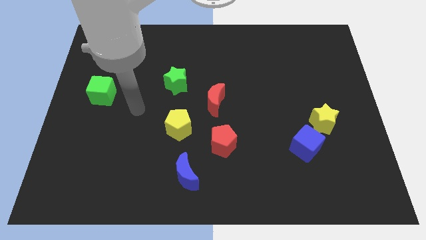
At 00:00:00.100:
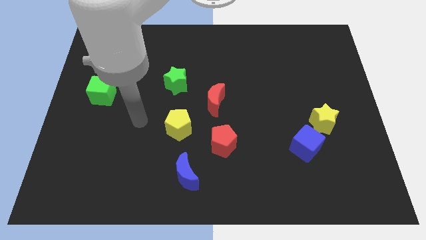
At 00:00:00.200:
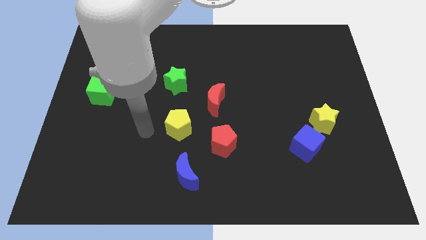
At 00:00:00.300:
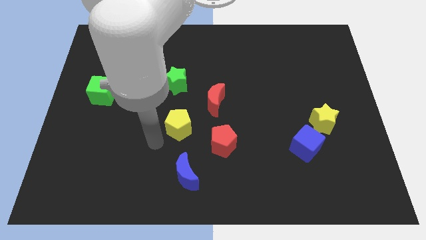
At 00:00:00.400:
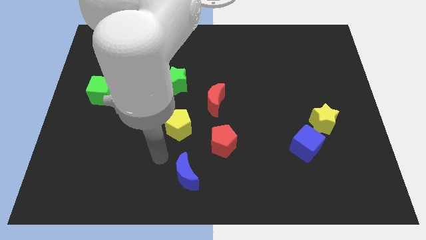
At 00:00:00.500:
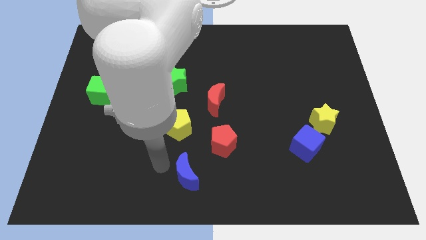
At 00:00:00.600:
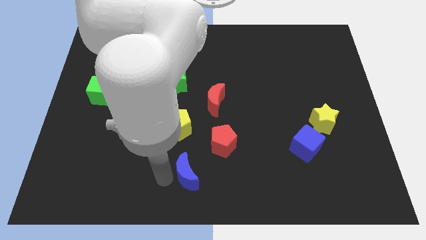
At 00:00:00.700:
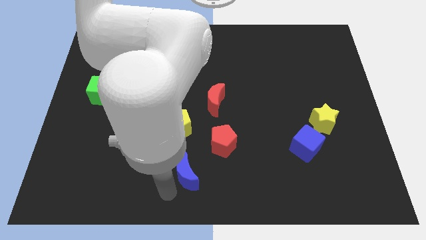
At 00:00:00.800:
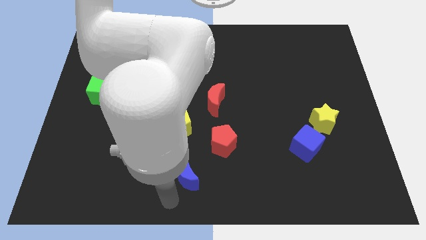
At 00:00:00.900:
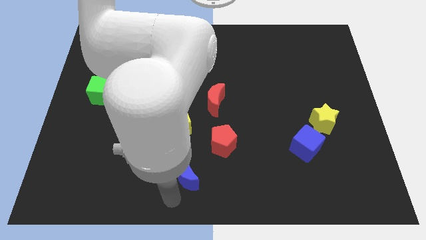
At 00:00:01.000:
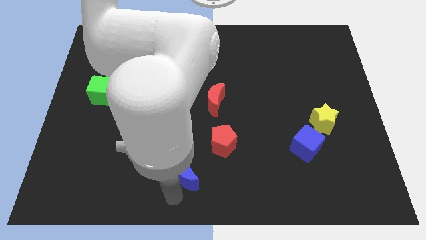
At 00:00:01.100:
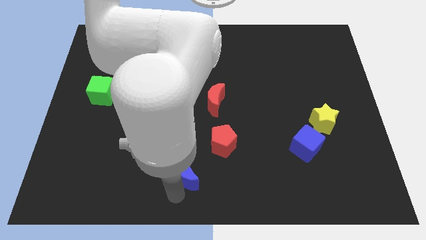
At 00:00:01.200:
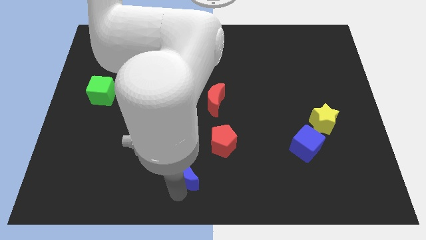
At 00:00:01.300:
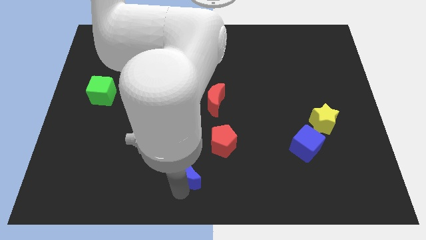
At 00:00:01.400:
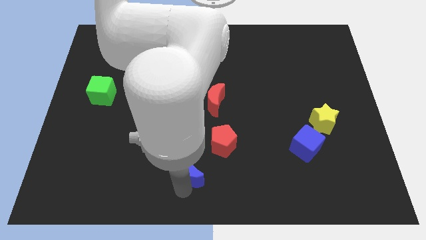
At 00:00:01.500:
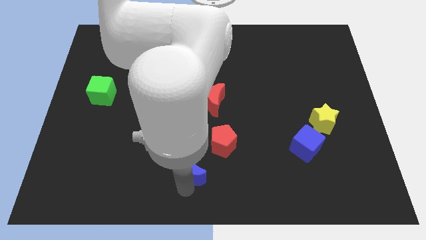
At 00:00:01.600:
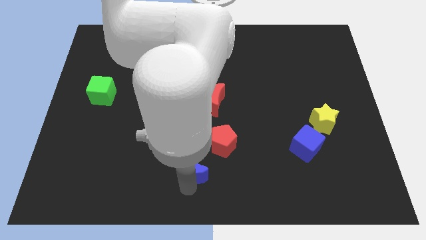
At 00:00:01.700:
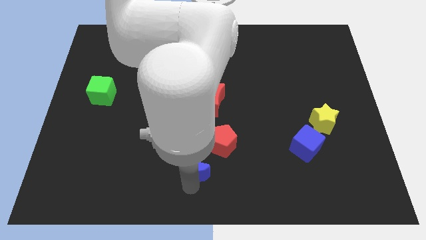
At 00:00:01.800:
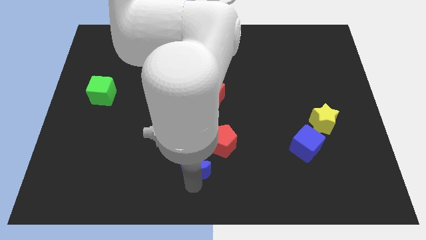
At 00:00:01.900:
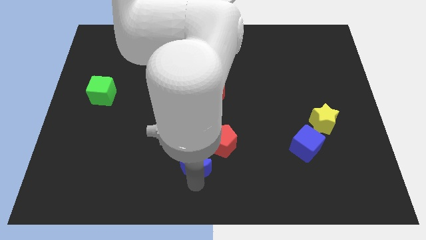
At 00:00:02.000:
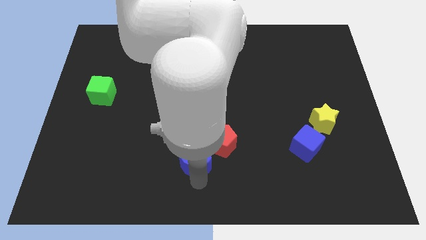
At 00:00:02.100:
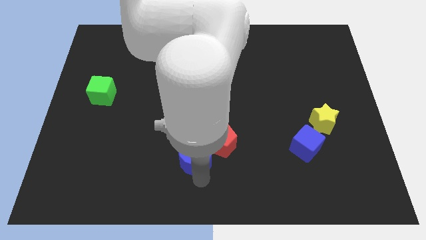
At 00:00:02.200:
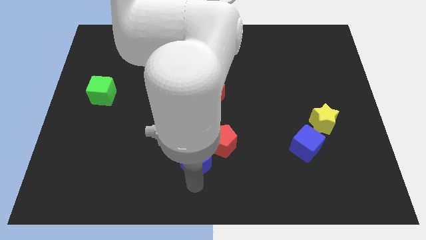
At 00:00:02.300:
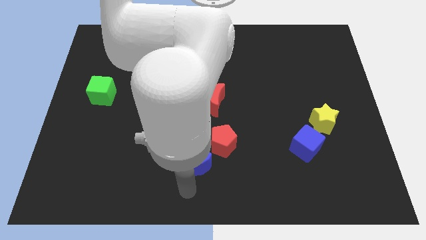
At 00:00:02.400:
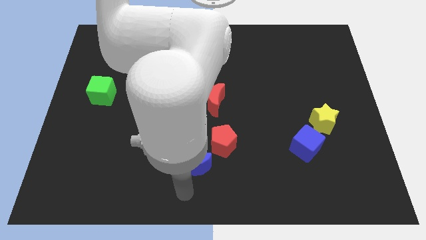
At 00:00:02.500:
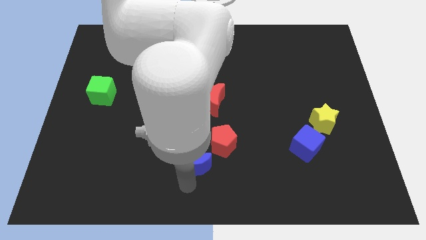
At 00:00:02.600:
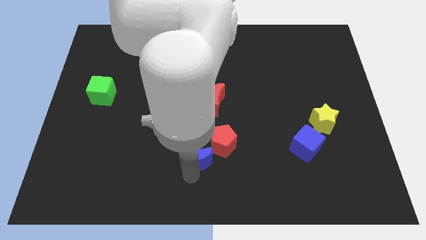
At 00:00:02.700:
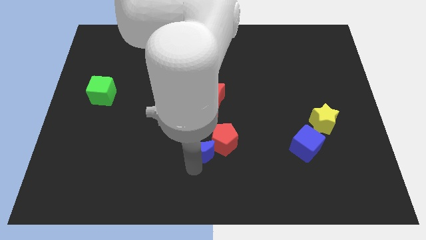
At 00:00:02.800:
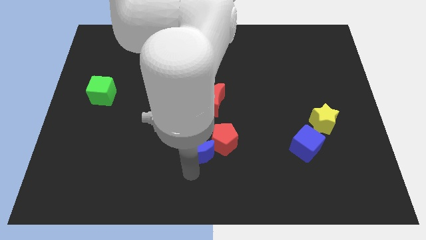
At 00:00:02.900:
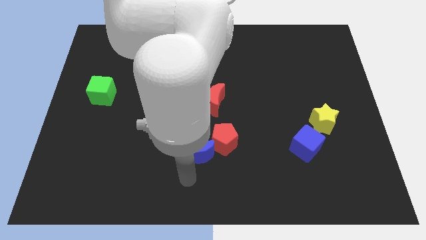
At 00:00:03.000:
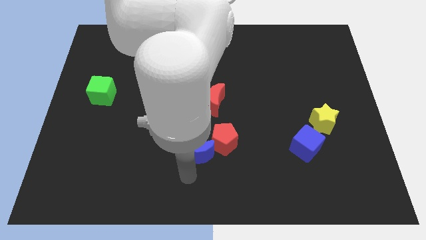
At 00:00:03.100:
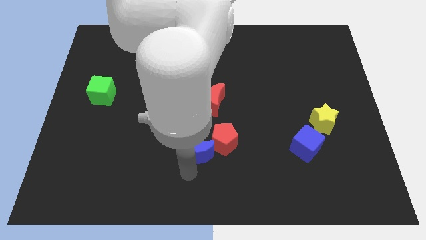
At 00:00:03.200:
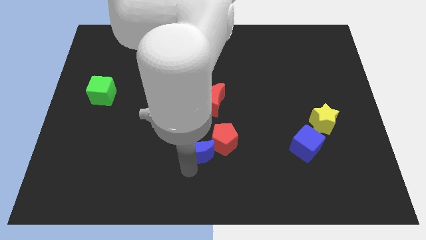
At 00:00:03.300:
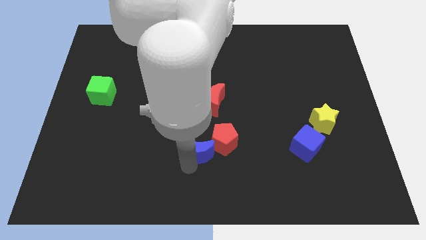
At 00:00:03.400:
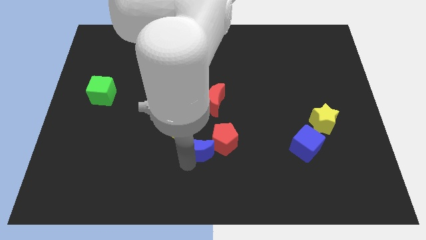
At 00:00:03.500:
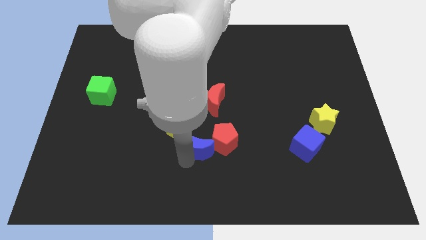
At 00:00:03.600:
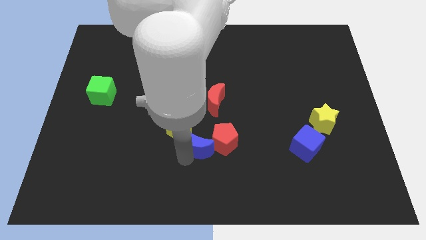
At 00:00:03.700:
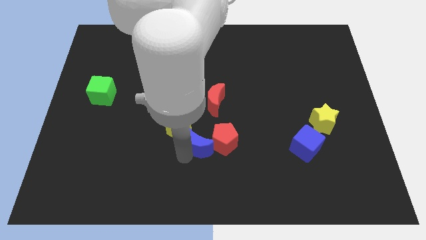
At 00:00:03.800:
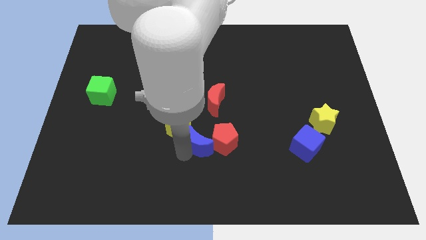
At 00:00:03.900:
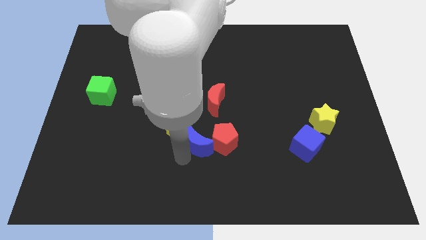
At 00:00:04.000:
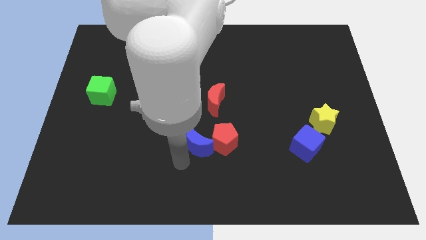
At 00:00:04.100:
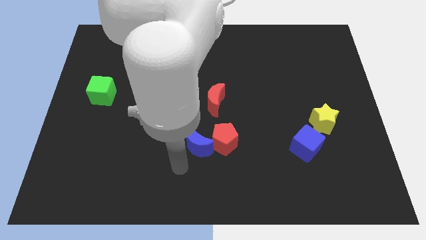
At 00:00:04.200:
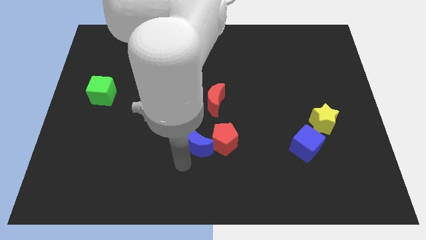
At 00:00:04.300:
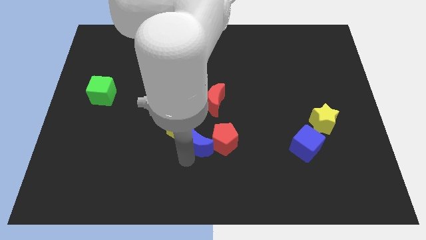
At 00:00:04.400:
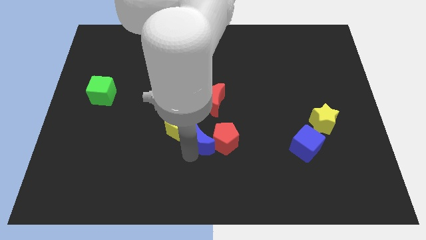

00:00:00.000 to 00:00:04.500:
slide the blue moon diagonally up and right somewhat

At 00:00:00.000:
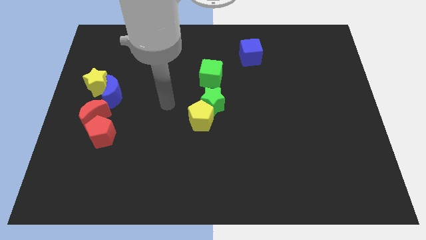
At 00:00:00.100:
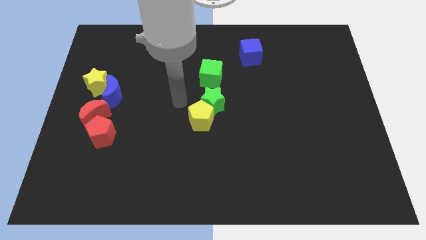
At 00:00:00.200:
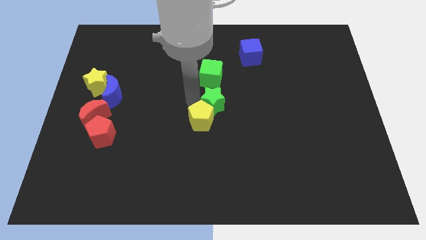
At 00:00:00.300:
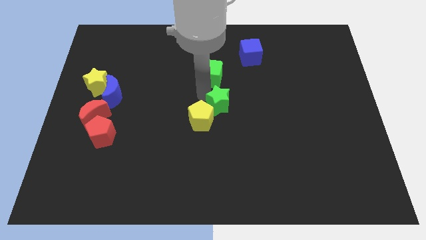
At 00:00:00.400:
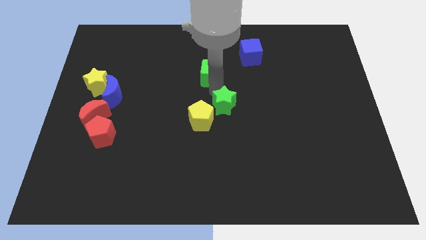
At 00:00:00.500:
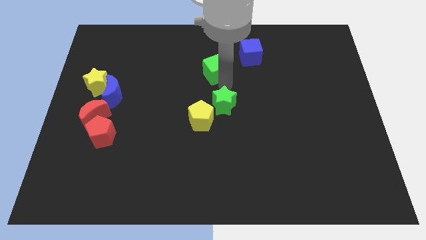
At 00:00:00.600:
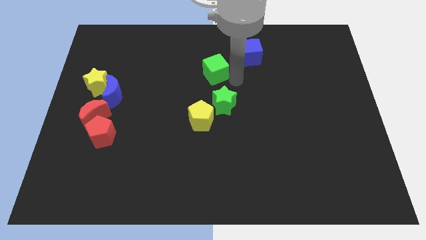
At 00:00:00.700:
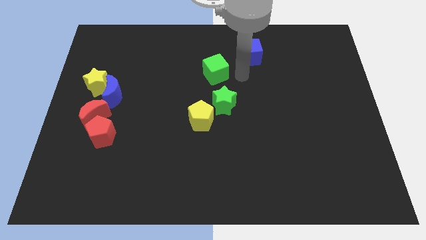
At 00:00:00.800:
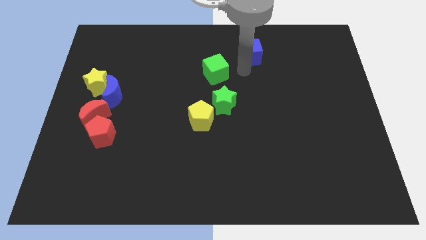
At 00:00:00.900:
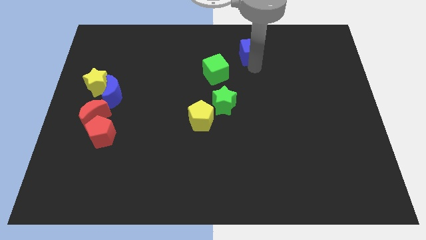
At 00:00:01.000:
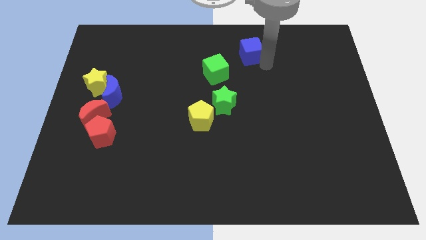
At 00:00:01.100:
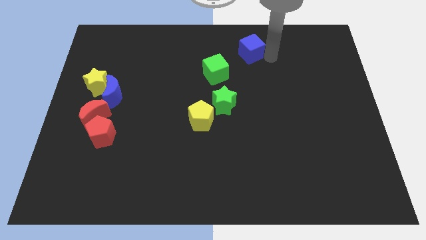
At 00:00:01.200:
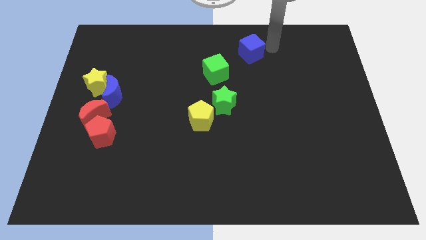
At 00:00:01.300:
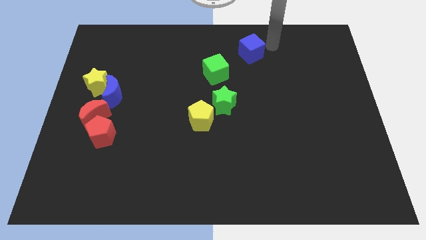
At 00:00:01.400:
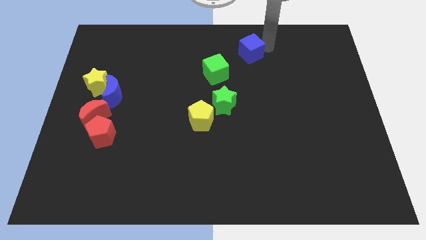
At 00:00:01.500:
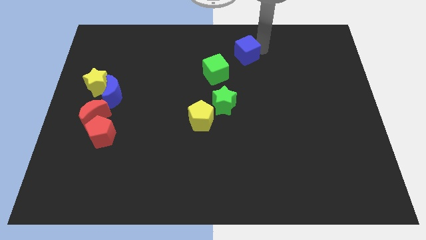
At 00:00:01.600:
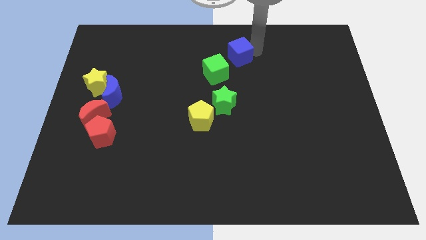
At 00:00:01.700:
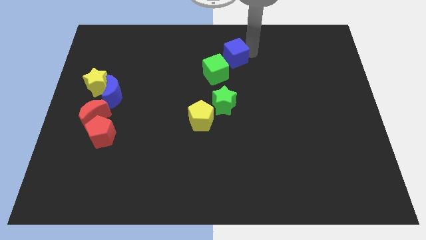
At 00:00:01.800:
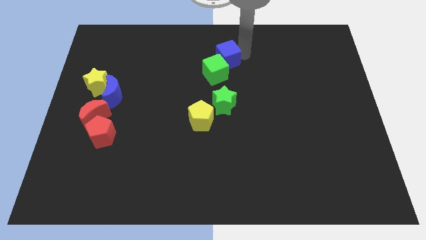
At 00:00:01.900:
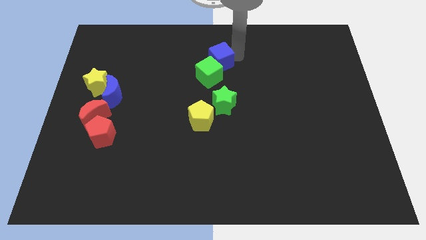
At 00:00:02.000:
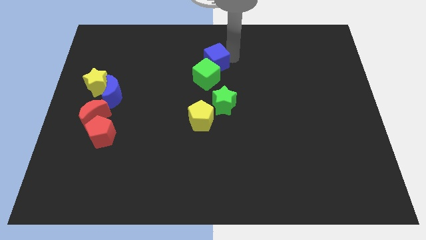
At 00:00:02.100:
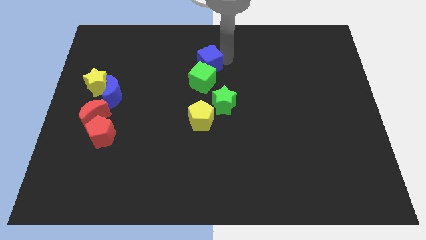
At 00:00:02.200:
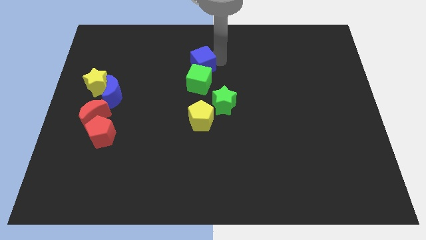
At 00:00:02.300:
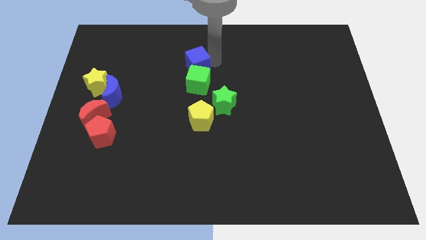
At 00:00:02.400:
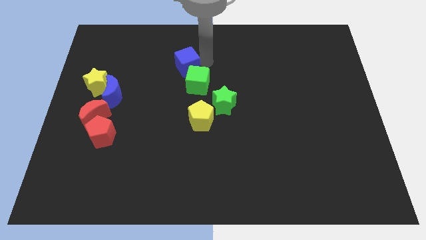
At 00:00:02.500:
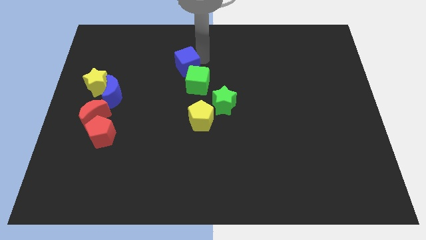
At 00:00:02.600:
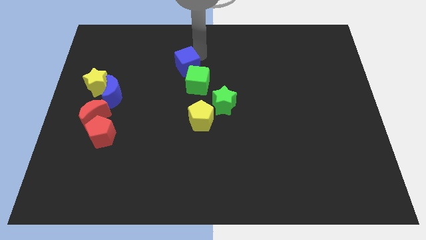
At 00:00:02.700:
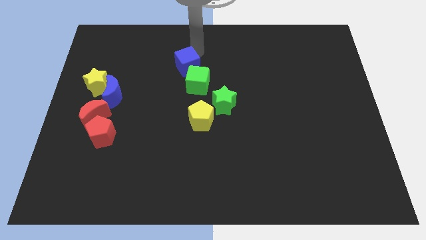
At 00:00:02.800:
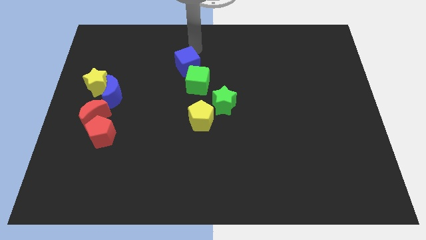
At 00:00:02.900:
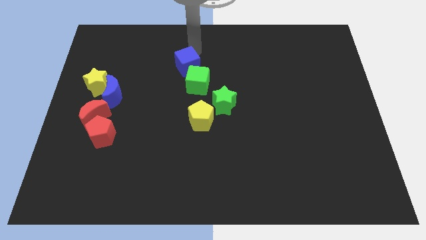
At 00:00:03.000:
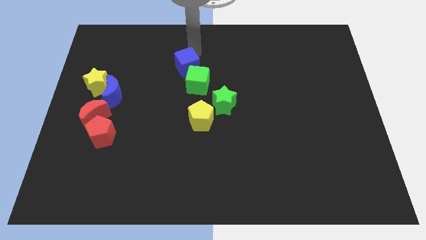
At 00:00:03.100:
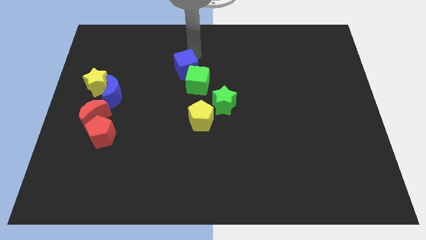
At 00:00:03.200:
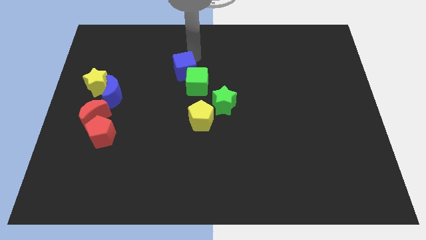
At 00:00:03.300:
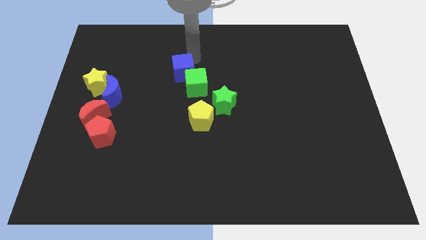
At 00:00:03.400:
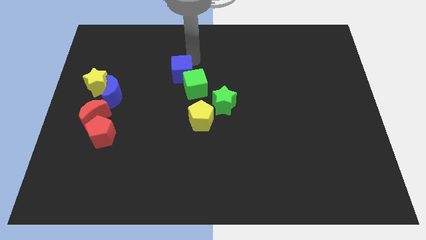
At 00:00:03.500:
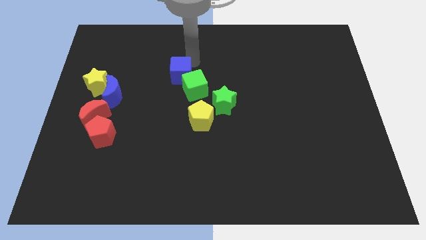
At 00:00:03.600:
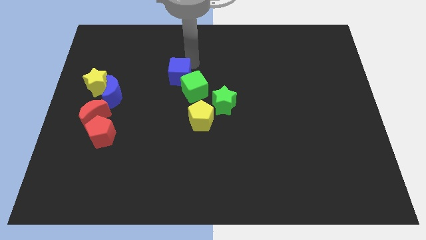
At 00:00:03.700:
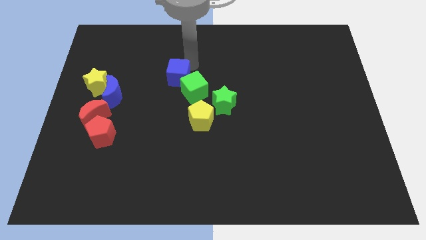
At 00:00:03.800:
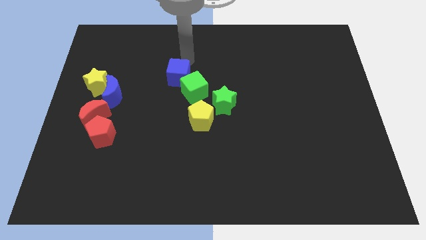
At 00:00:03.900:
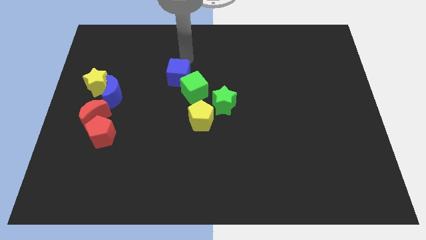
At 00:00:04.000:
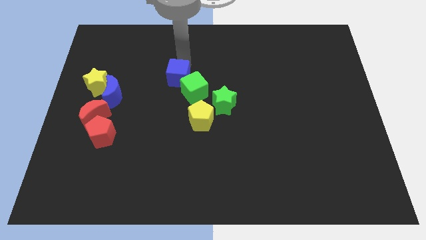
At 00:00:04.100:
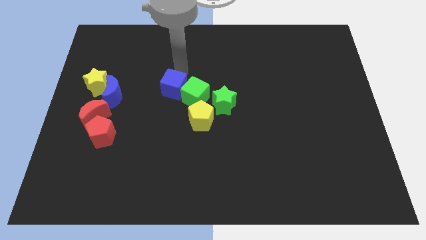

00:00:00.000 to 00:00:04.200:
push the blue cube down and left diagonally
